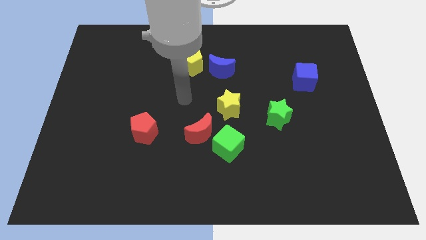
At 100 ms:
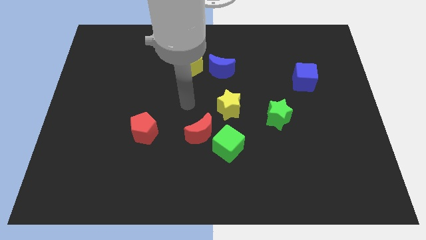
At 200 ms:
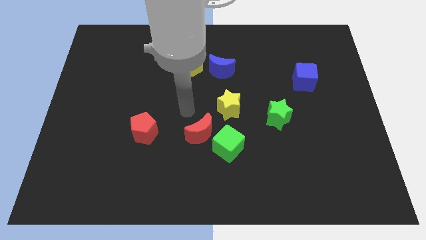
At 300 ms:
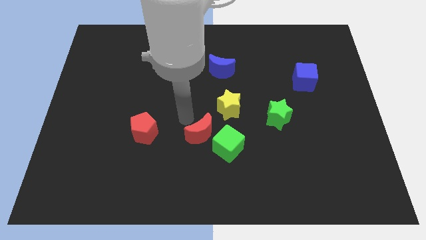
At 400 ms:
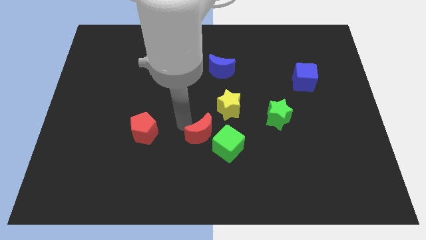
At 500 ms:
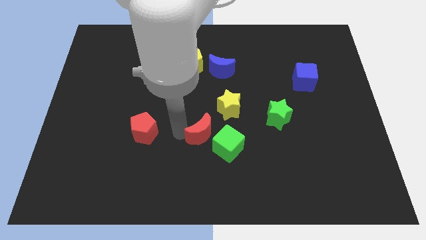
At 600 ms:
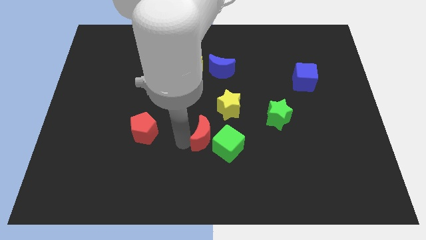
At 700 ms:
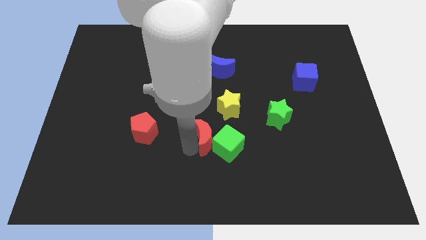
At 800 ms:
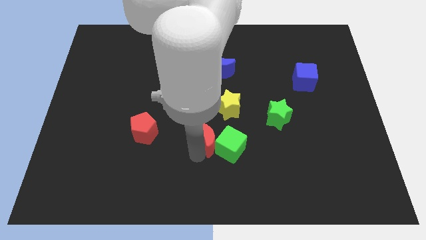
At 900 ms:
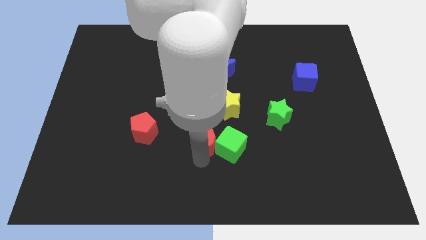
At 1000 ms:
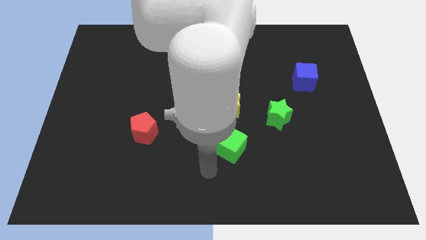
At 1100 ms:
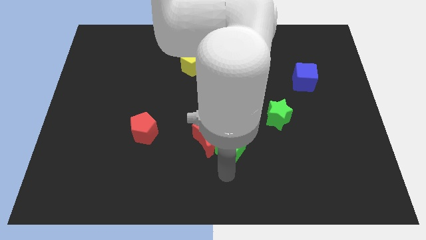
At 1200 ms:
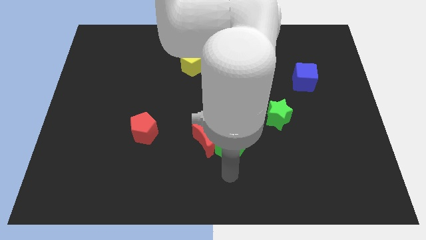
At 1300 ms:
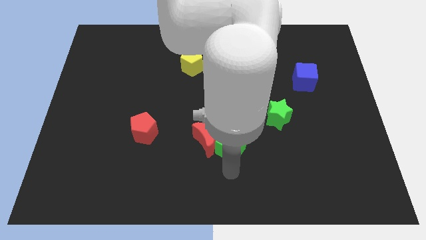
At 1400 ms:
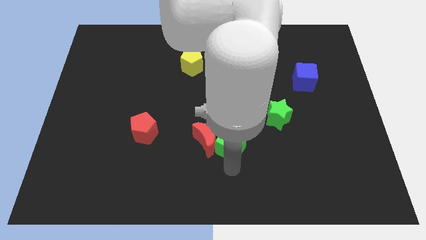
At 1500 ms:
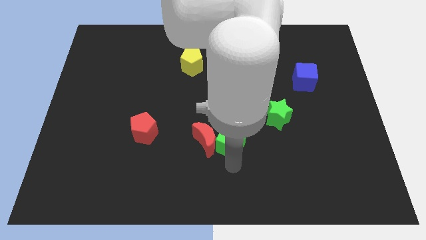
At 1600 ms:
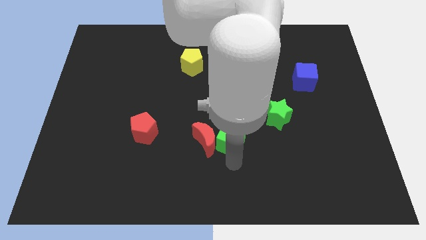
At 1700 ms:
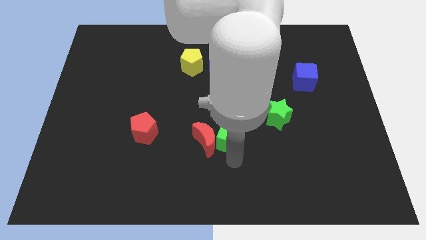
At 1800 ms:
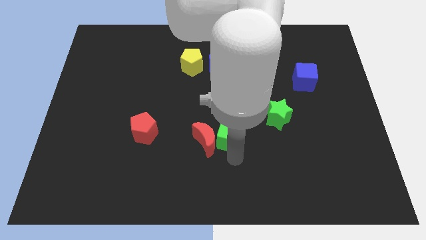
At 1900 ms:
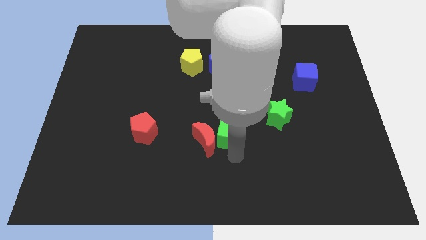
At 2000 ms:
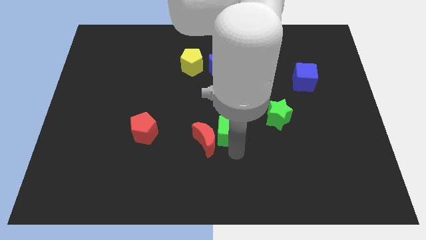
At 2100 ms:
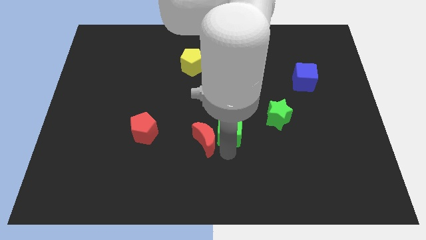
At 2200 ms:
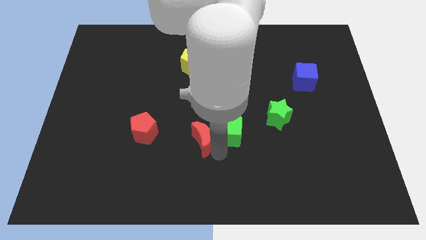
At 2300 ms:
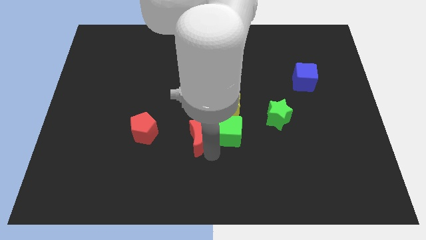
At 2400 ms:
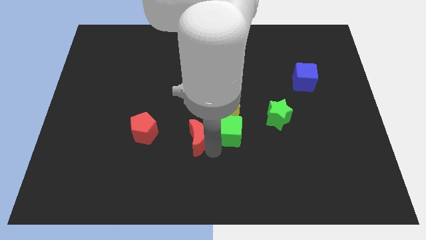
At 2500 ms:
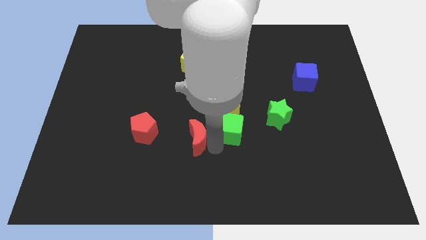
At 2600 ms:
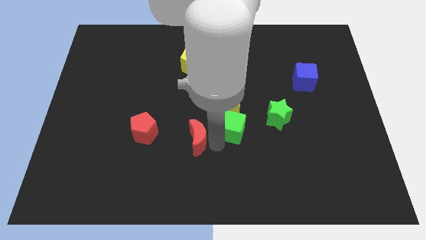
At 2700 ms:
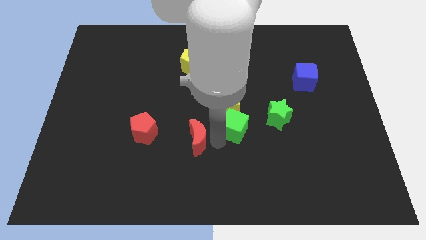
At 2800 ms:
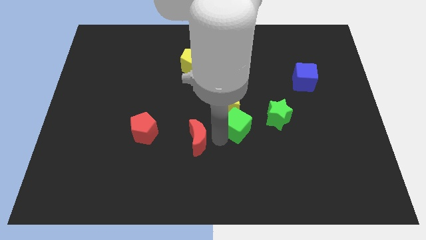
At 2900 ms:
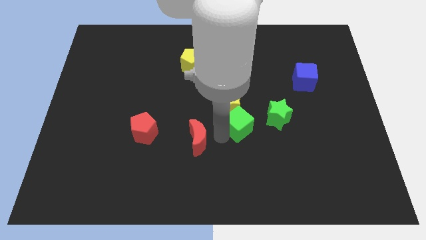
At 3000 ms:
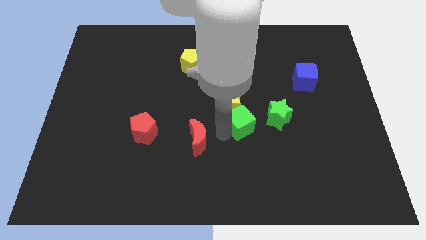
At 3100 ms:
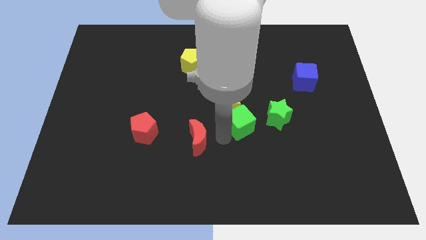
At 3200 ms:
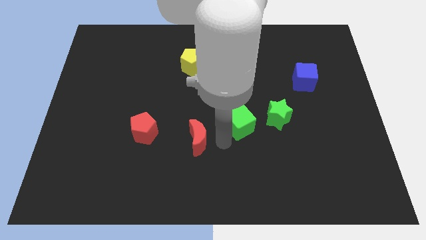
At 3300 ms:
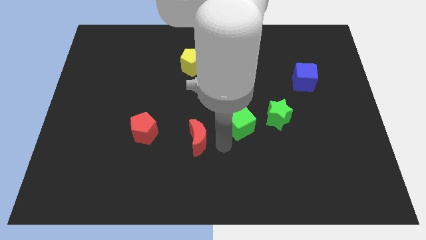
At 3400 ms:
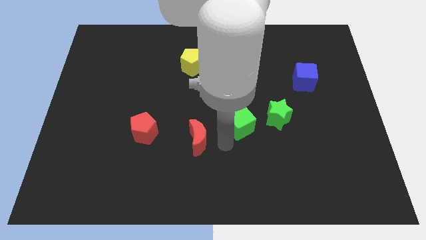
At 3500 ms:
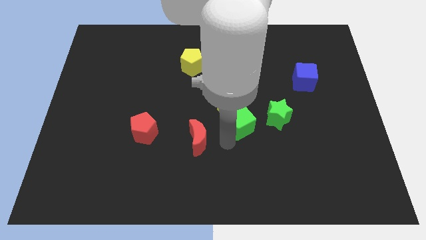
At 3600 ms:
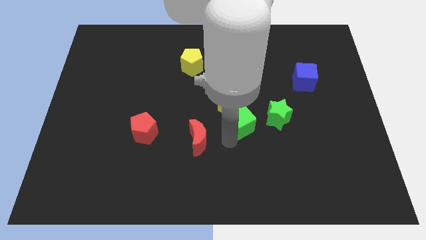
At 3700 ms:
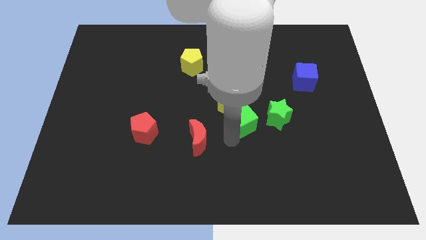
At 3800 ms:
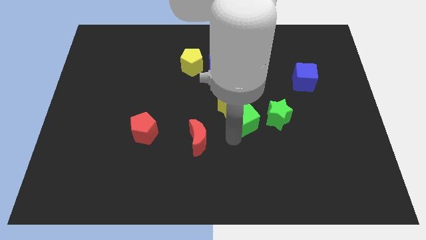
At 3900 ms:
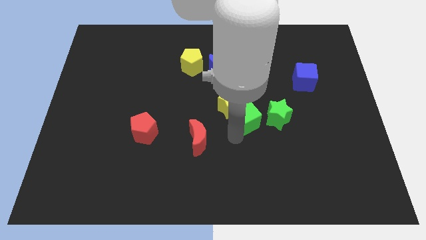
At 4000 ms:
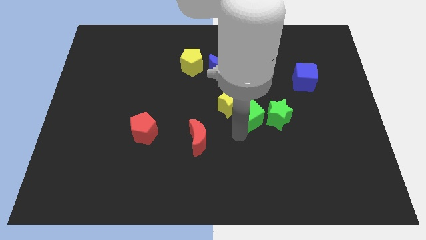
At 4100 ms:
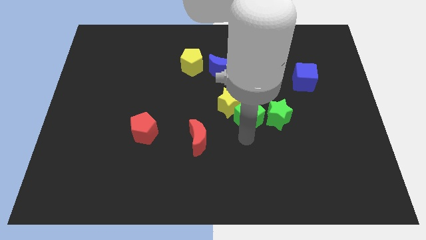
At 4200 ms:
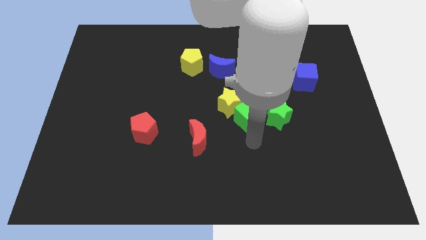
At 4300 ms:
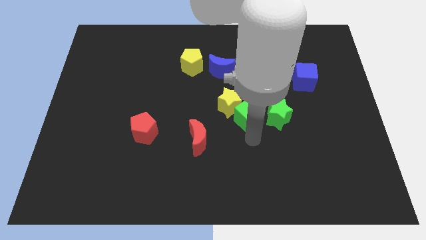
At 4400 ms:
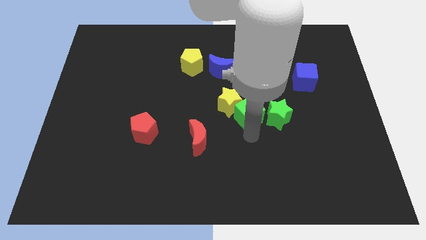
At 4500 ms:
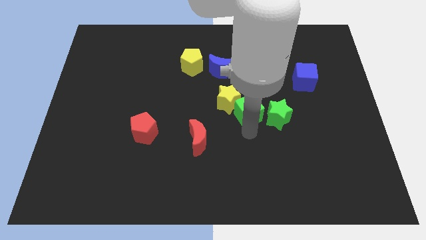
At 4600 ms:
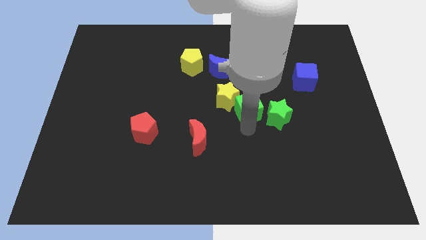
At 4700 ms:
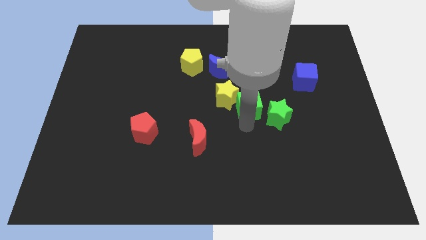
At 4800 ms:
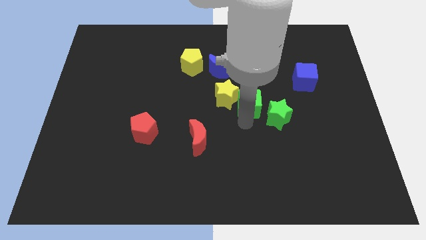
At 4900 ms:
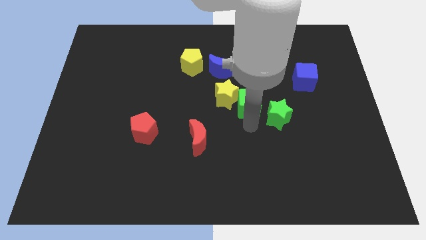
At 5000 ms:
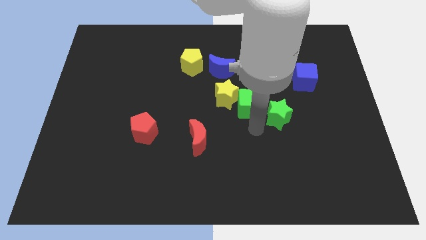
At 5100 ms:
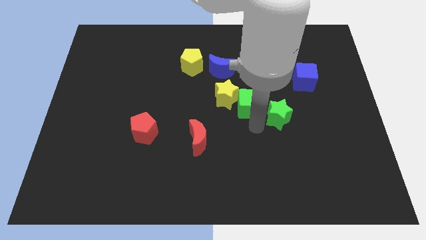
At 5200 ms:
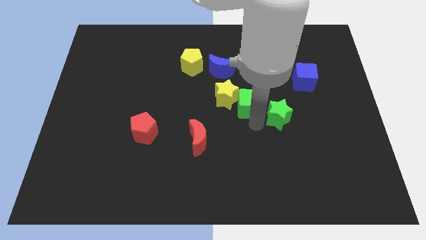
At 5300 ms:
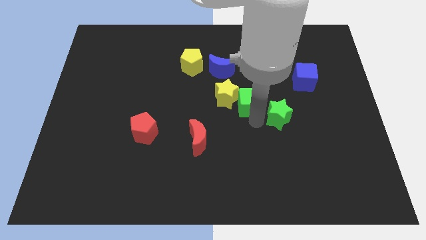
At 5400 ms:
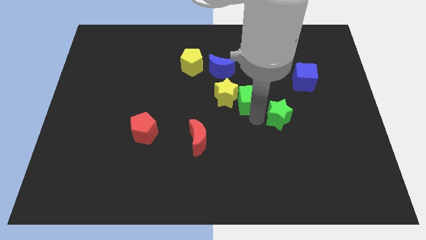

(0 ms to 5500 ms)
slide the green cube to the bottom right of the blue moon

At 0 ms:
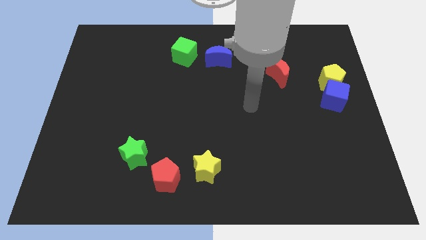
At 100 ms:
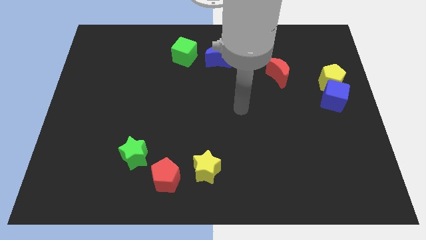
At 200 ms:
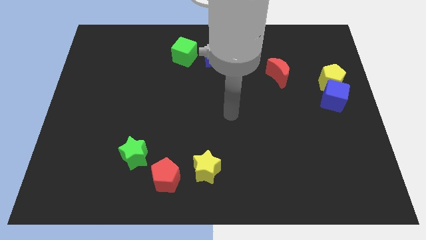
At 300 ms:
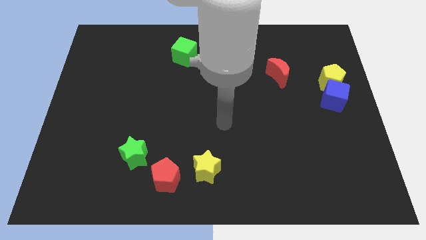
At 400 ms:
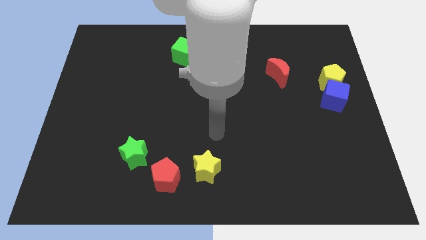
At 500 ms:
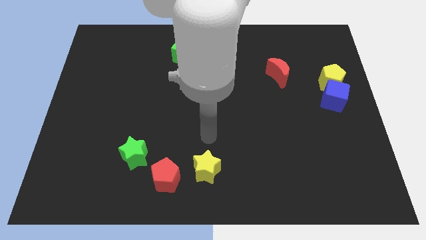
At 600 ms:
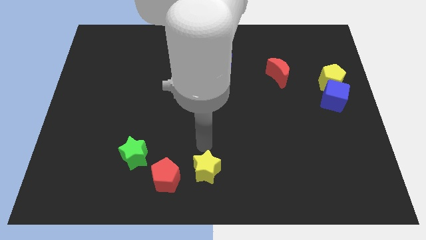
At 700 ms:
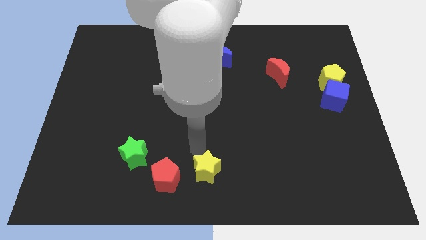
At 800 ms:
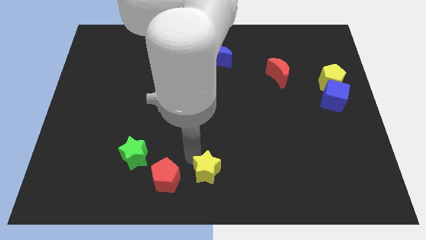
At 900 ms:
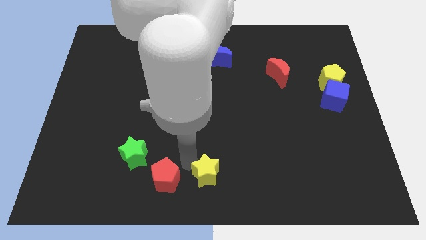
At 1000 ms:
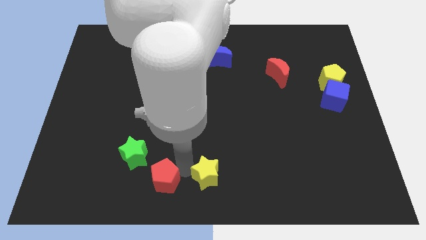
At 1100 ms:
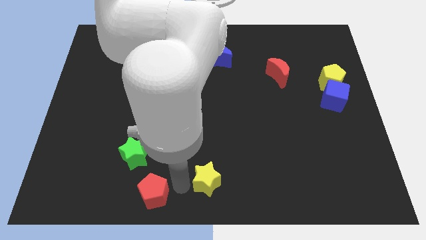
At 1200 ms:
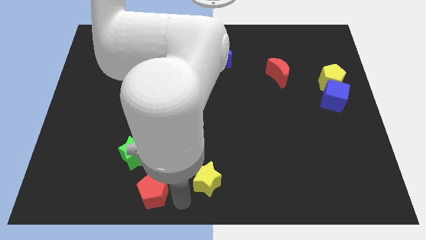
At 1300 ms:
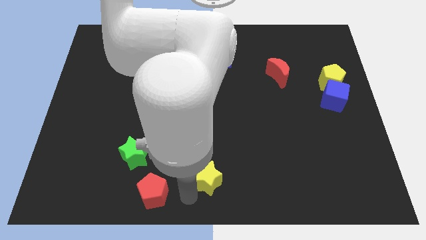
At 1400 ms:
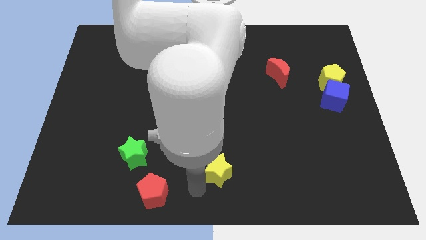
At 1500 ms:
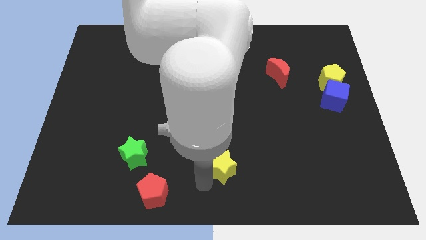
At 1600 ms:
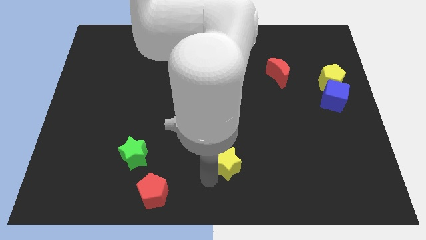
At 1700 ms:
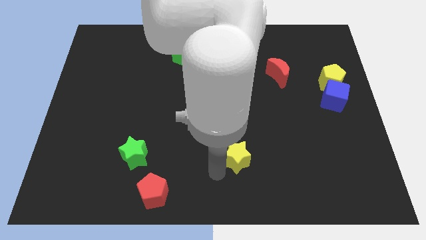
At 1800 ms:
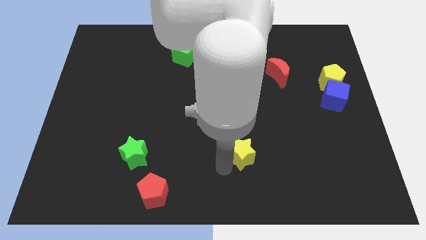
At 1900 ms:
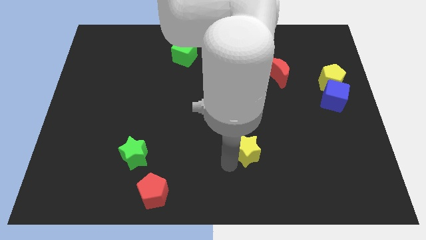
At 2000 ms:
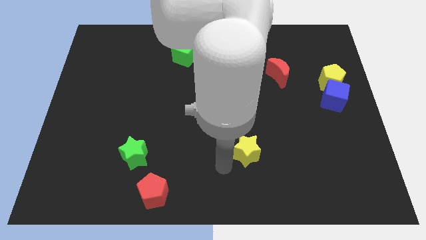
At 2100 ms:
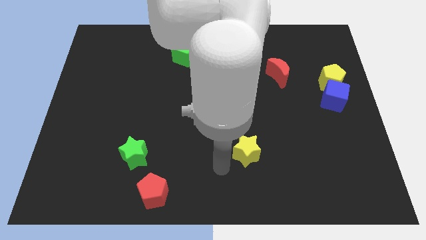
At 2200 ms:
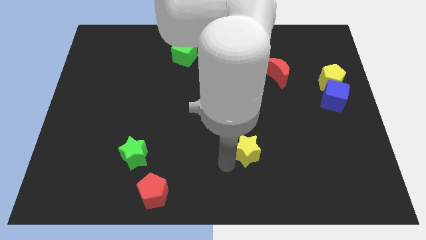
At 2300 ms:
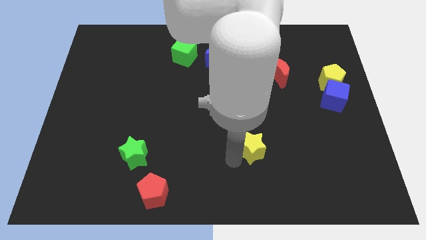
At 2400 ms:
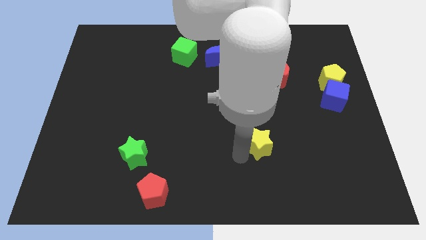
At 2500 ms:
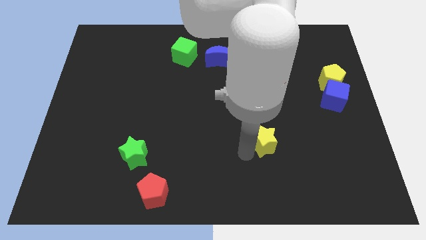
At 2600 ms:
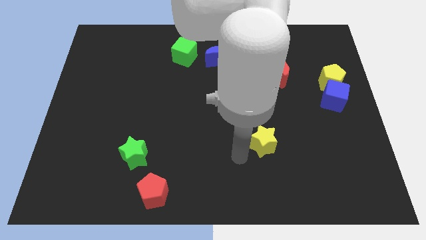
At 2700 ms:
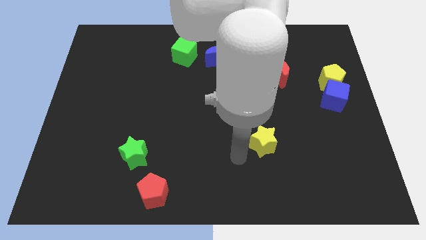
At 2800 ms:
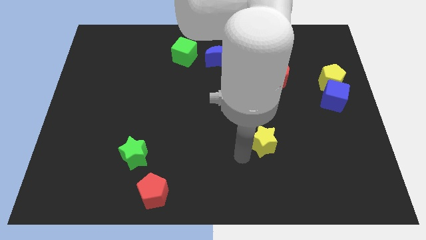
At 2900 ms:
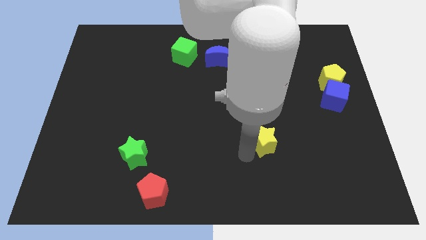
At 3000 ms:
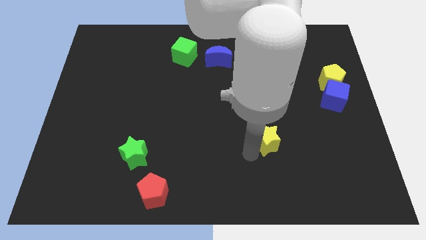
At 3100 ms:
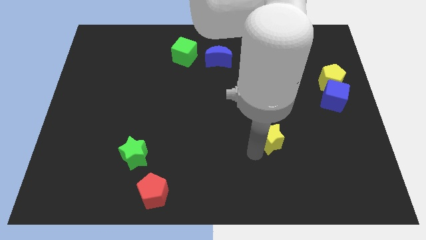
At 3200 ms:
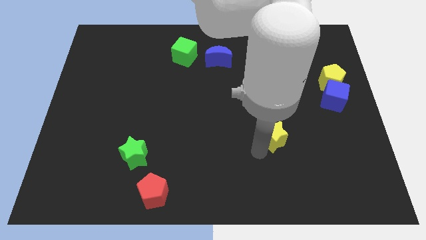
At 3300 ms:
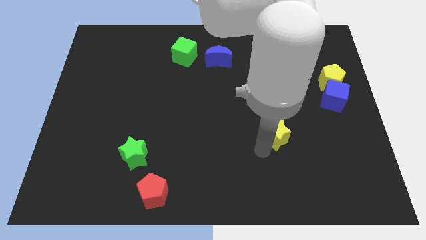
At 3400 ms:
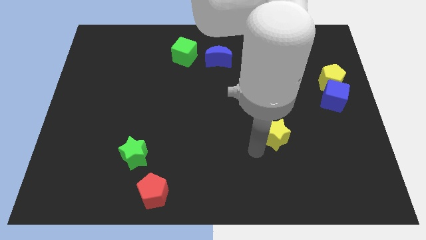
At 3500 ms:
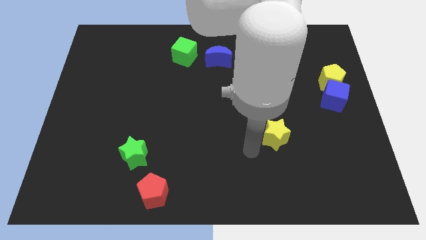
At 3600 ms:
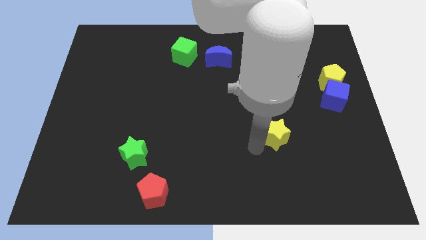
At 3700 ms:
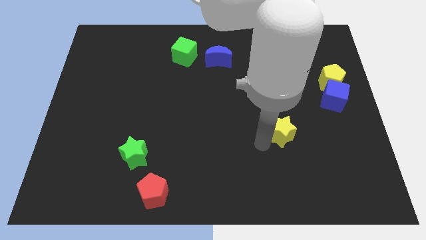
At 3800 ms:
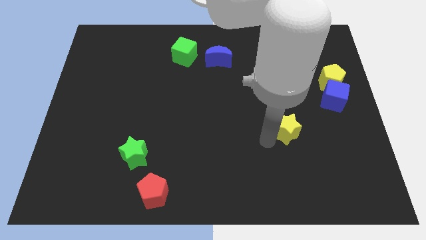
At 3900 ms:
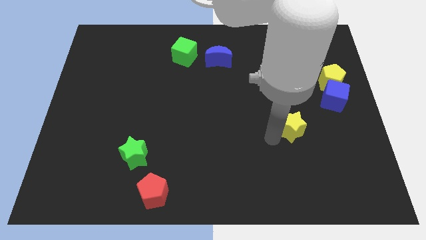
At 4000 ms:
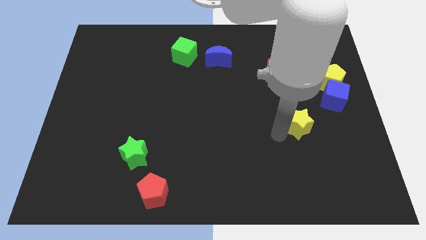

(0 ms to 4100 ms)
move the yellow star diagonally down and to the left of the blue cube
